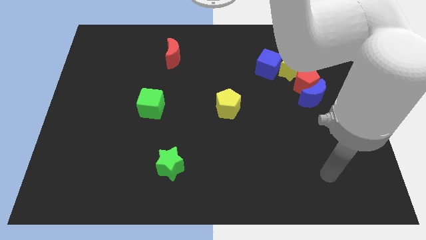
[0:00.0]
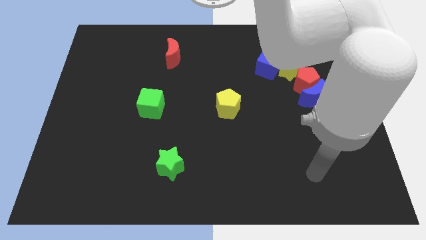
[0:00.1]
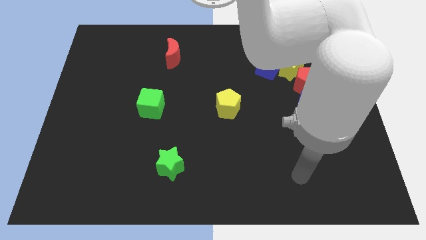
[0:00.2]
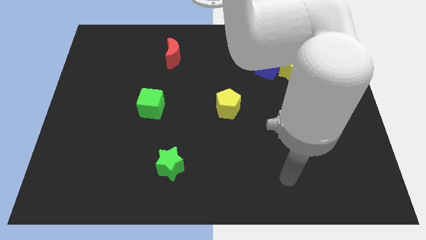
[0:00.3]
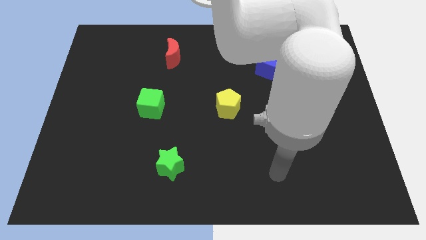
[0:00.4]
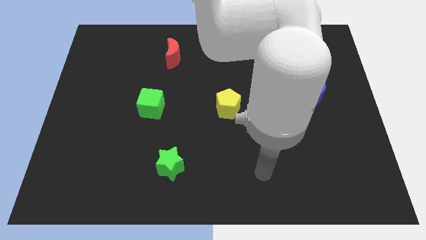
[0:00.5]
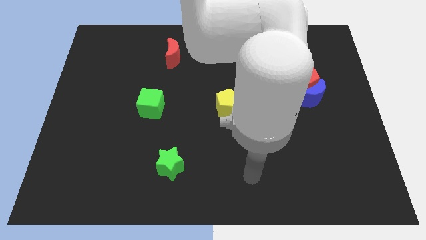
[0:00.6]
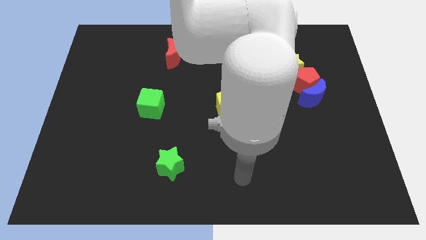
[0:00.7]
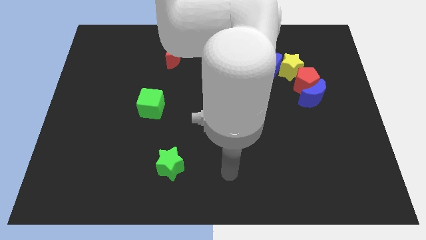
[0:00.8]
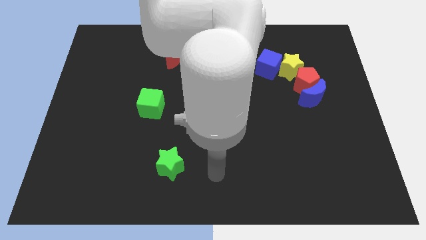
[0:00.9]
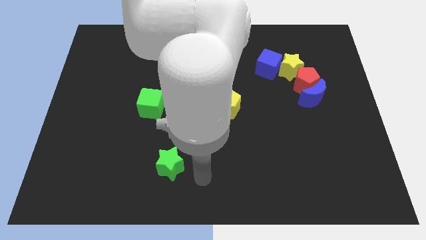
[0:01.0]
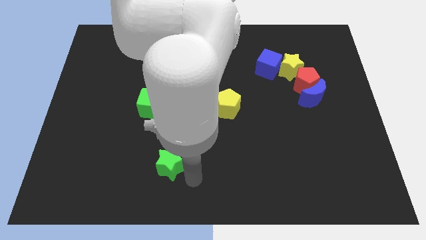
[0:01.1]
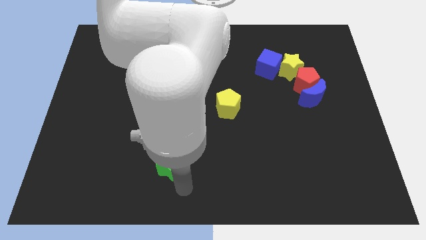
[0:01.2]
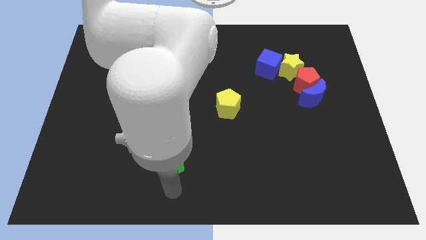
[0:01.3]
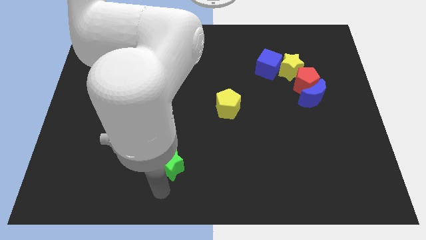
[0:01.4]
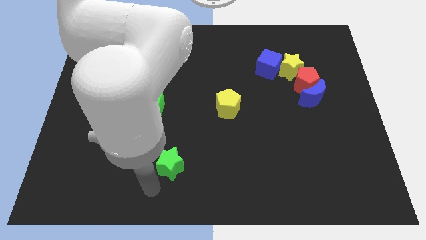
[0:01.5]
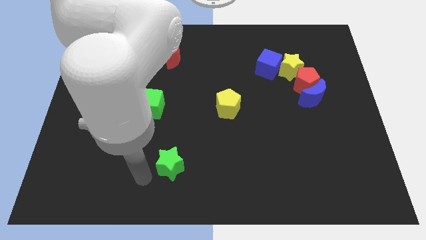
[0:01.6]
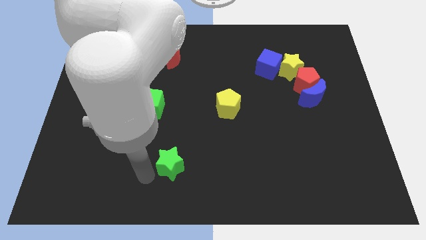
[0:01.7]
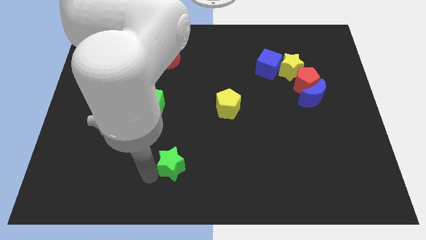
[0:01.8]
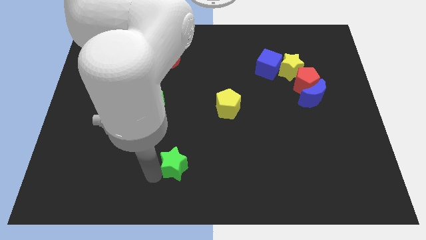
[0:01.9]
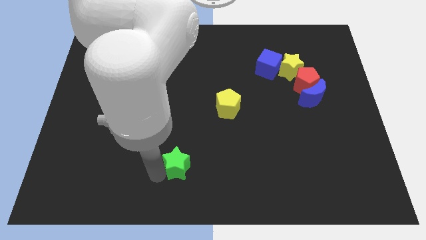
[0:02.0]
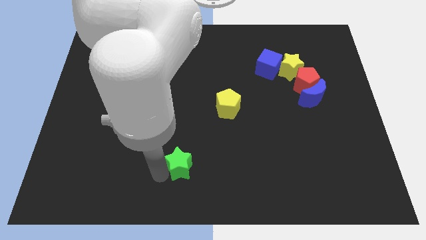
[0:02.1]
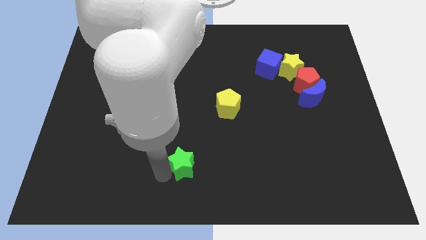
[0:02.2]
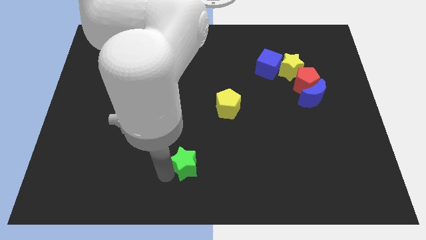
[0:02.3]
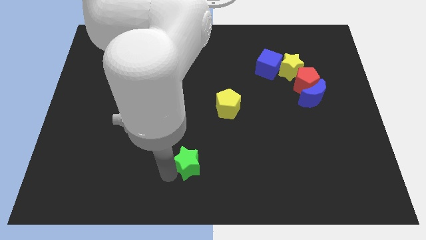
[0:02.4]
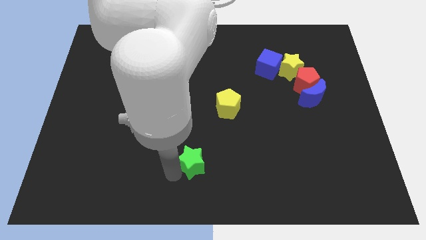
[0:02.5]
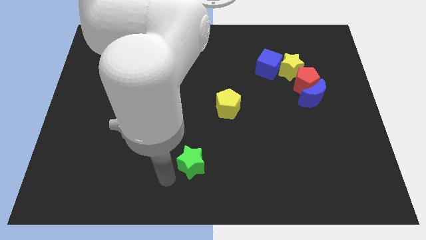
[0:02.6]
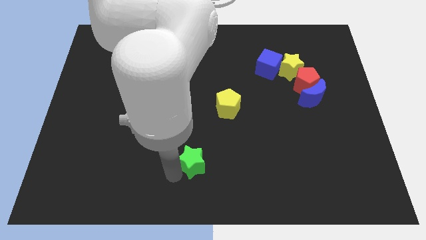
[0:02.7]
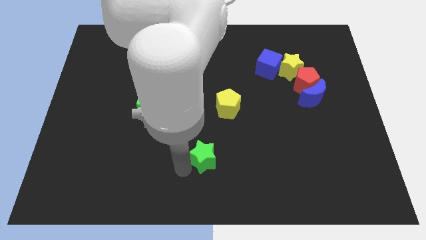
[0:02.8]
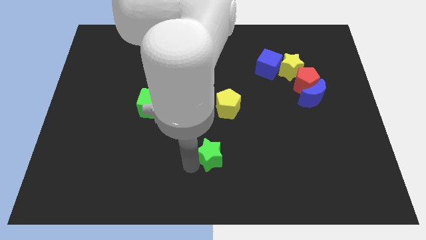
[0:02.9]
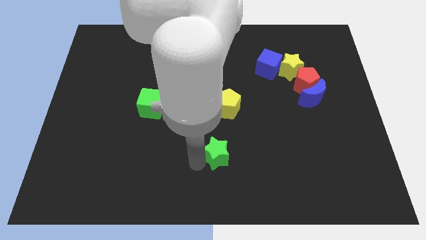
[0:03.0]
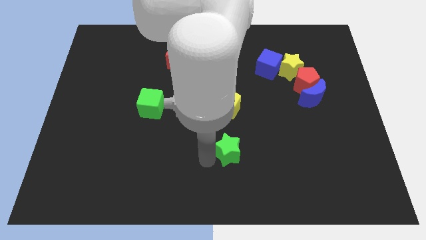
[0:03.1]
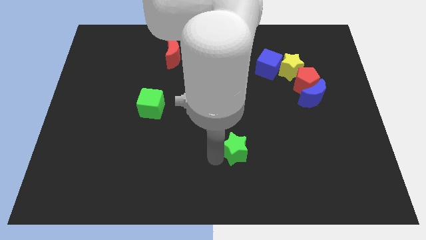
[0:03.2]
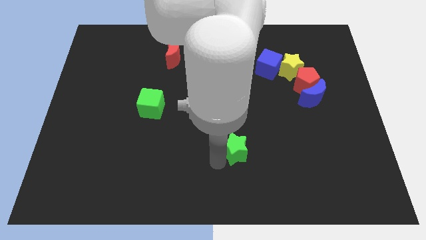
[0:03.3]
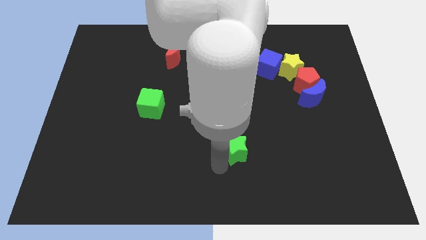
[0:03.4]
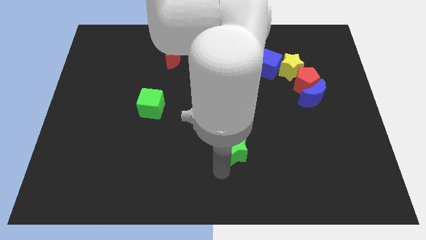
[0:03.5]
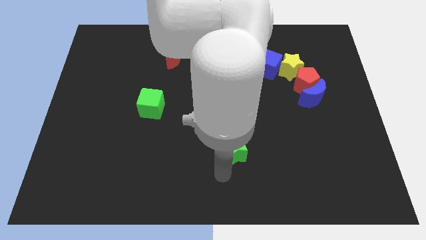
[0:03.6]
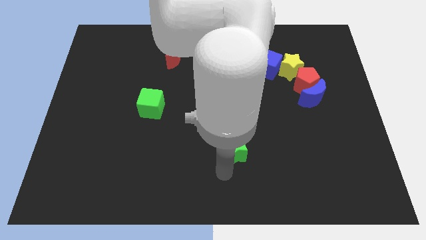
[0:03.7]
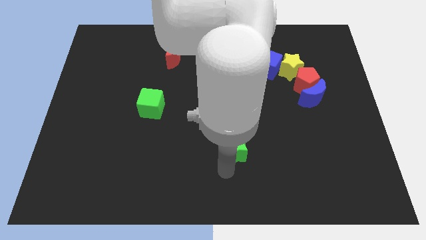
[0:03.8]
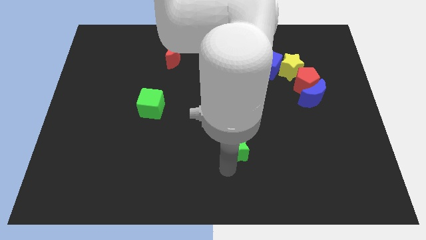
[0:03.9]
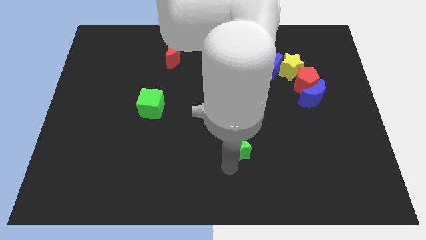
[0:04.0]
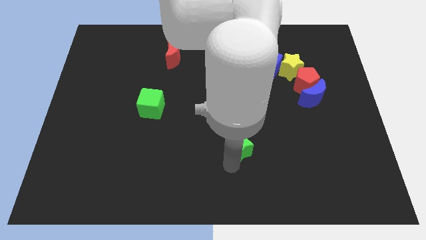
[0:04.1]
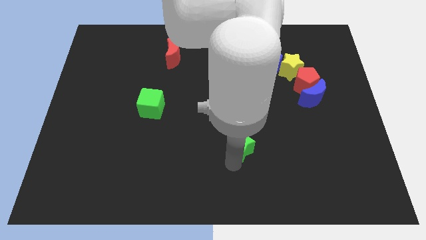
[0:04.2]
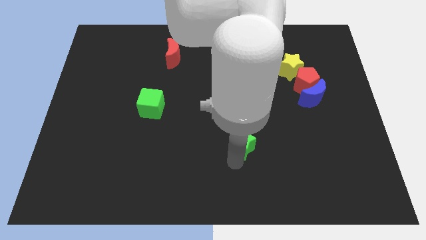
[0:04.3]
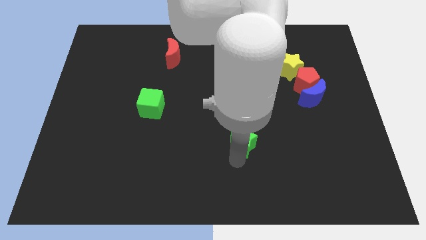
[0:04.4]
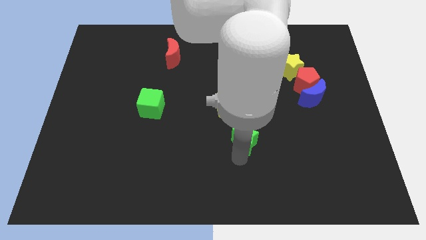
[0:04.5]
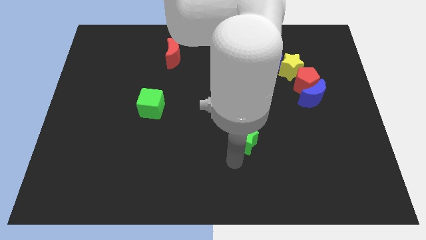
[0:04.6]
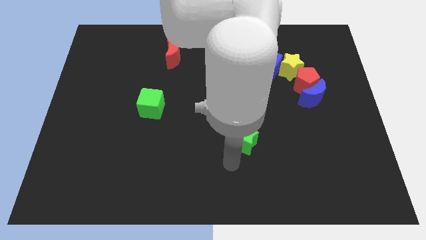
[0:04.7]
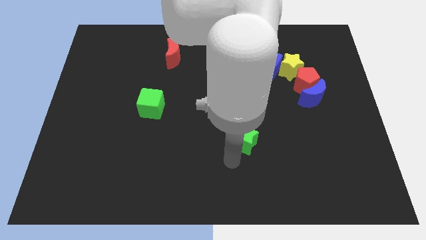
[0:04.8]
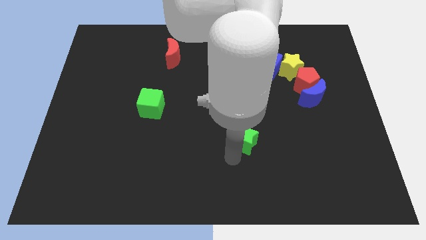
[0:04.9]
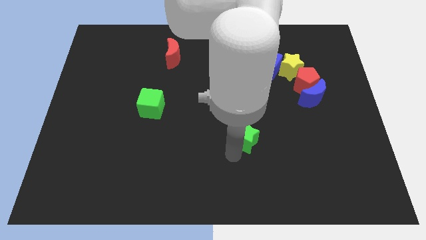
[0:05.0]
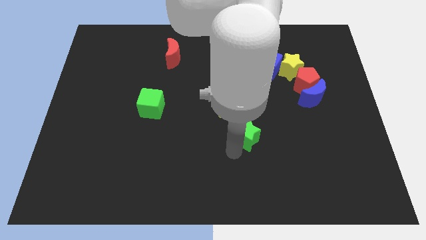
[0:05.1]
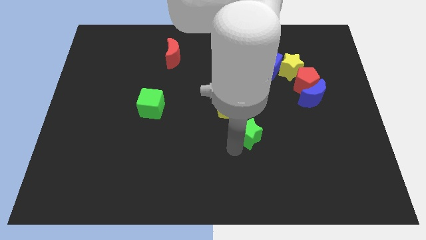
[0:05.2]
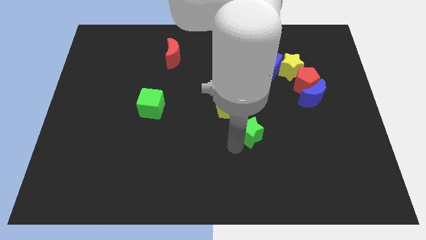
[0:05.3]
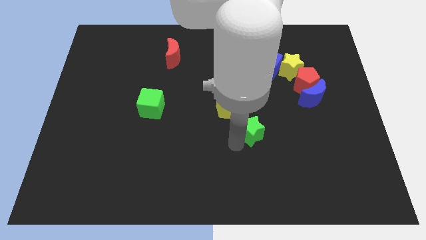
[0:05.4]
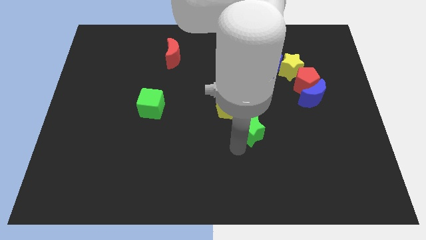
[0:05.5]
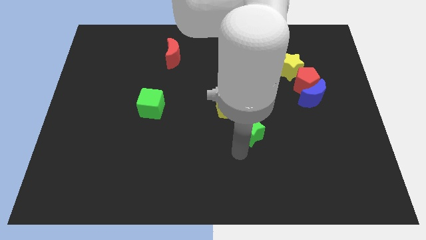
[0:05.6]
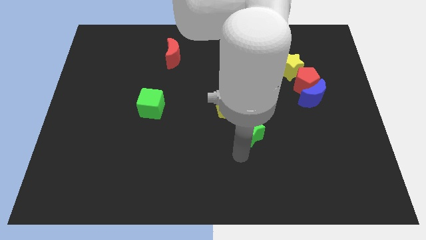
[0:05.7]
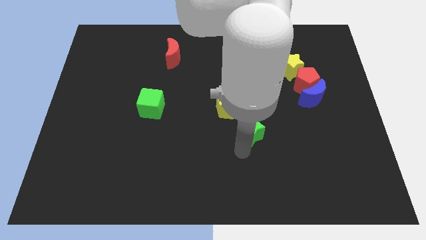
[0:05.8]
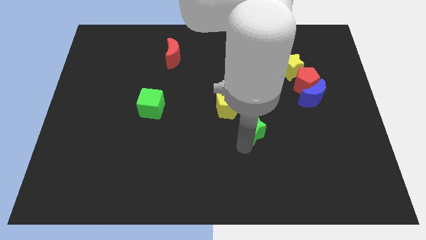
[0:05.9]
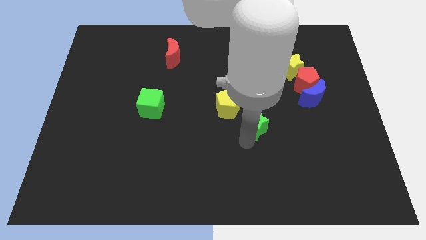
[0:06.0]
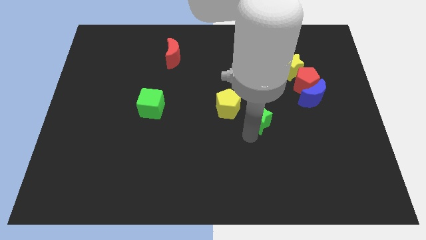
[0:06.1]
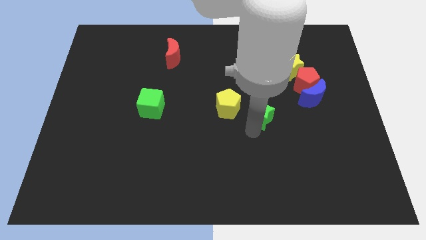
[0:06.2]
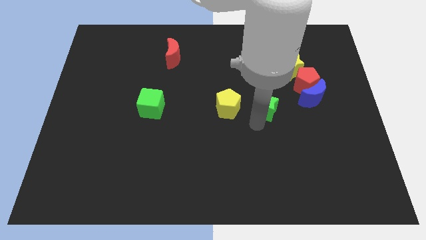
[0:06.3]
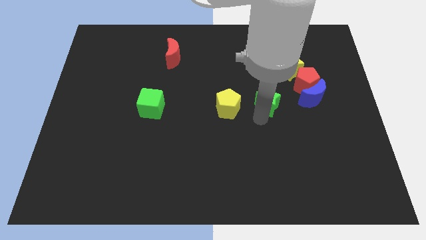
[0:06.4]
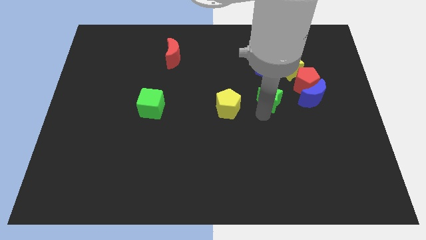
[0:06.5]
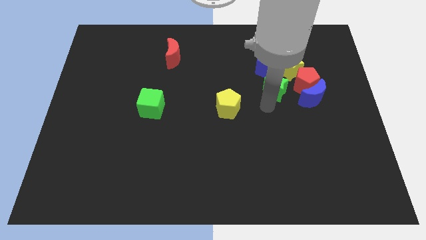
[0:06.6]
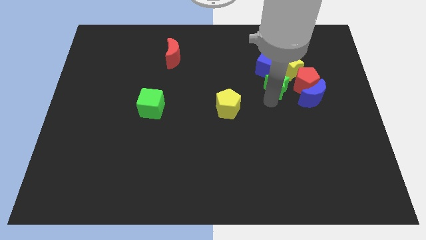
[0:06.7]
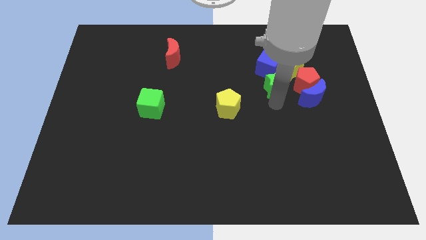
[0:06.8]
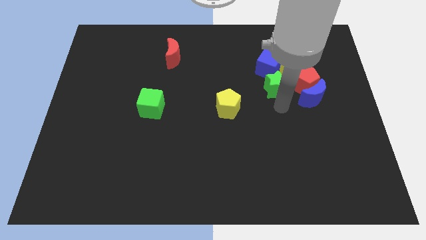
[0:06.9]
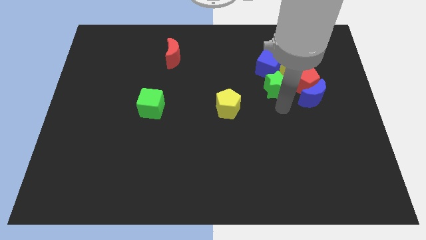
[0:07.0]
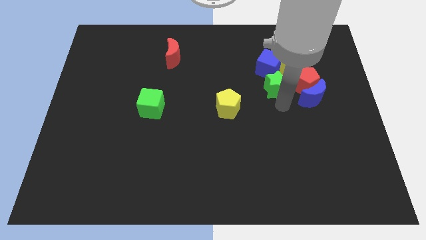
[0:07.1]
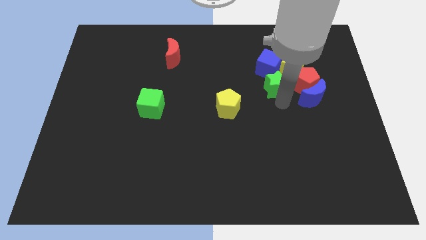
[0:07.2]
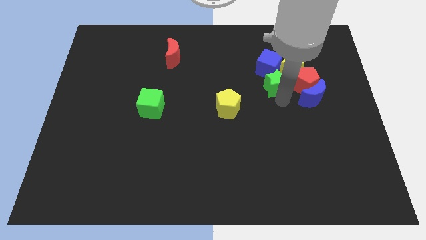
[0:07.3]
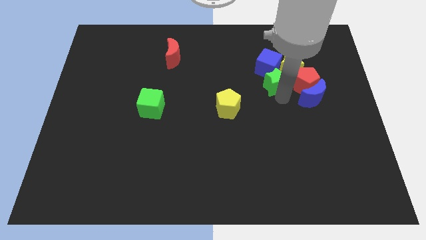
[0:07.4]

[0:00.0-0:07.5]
push the green star close to the blue cube
